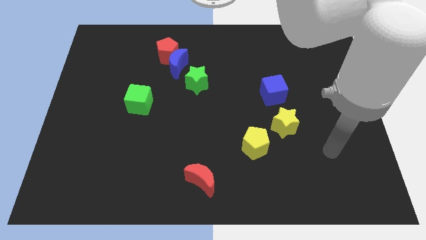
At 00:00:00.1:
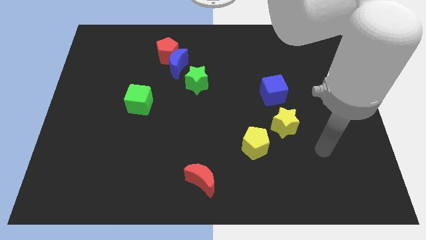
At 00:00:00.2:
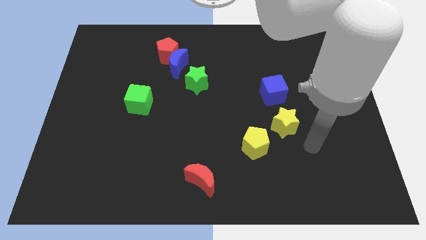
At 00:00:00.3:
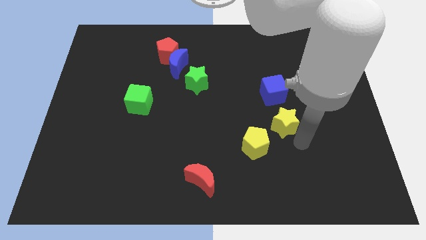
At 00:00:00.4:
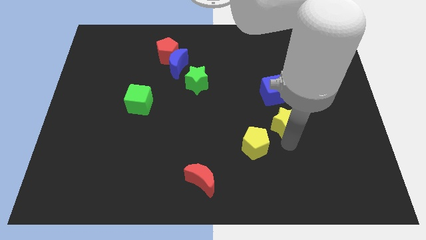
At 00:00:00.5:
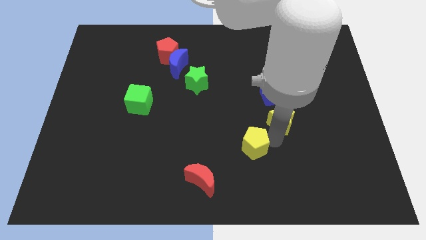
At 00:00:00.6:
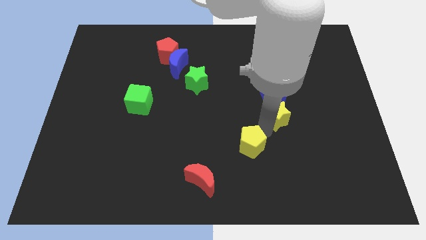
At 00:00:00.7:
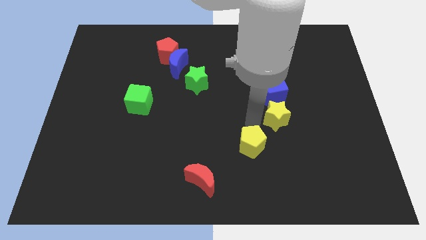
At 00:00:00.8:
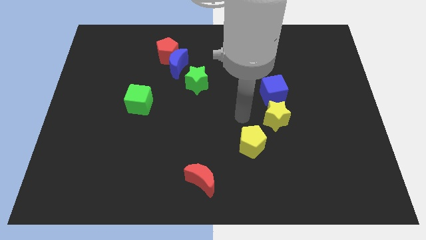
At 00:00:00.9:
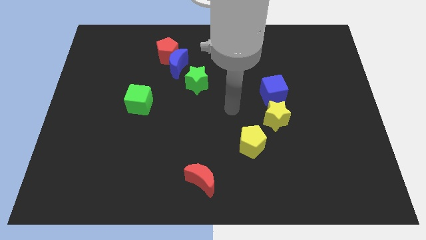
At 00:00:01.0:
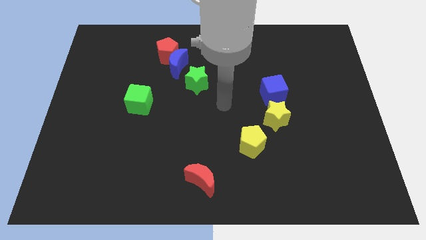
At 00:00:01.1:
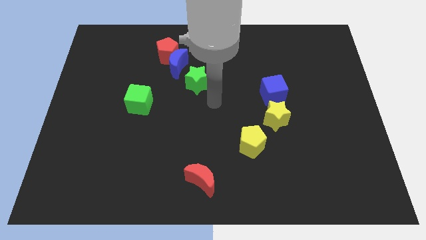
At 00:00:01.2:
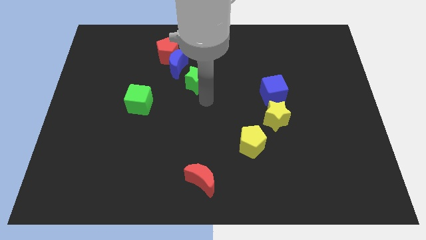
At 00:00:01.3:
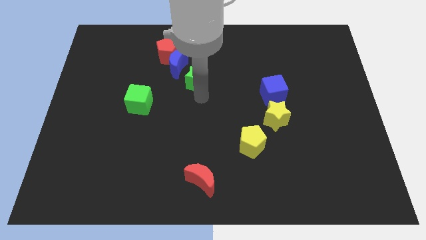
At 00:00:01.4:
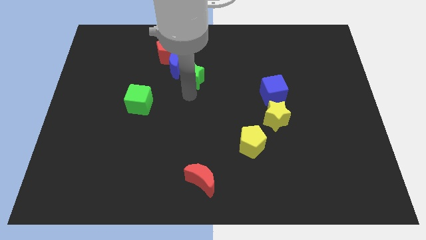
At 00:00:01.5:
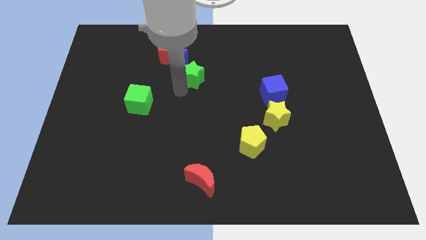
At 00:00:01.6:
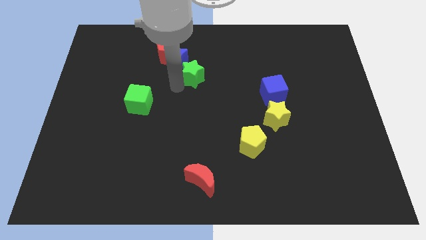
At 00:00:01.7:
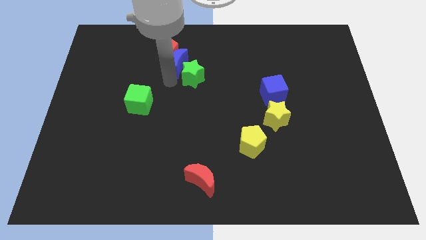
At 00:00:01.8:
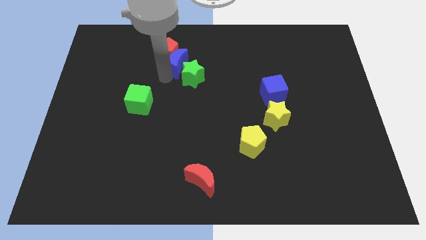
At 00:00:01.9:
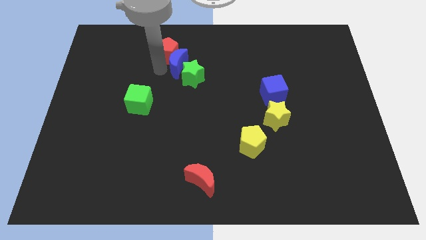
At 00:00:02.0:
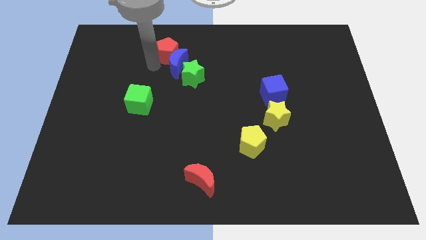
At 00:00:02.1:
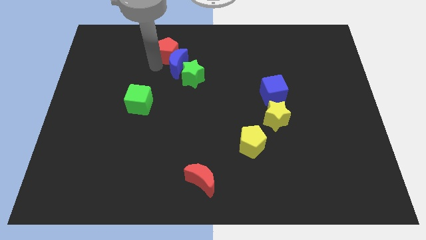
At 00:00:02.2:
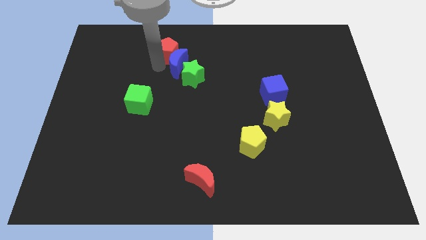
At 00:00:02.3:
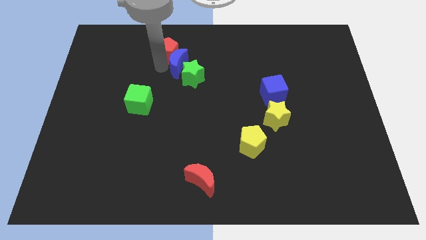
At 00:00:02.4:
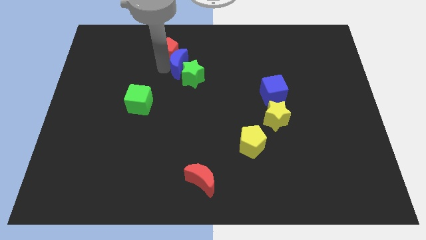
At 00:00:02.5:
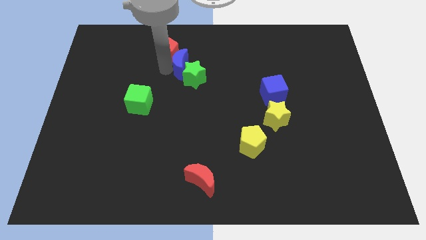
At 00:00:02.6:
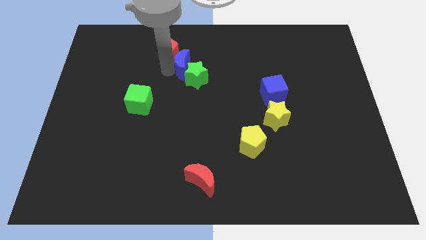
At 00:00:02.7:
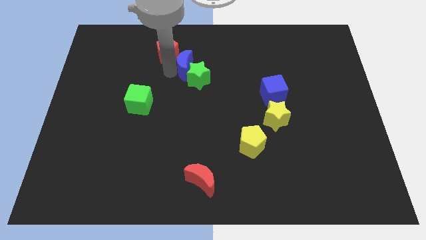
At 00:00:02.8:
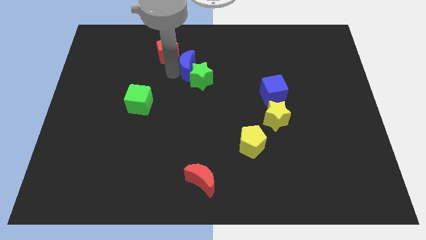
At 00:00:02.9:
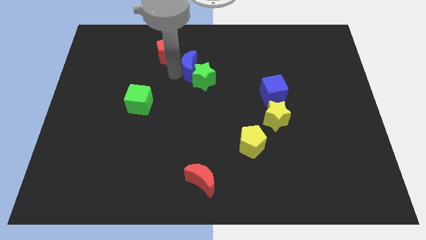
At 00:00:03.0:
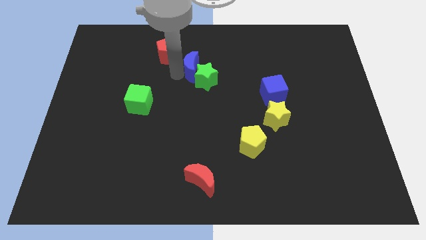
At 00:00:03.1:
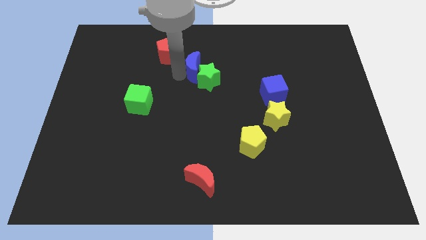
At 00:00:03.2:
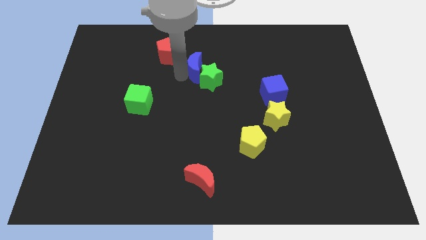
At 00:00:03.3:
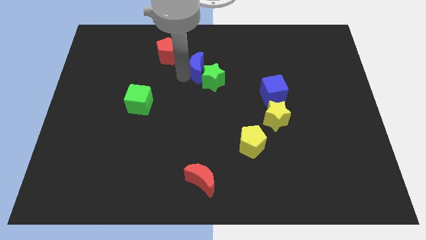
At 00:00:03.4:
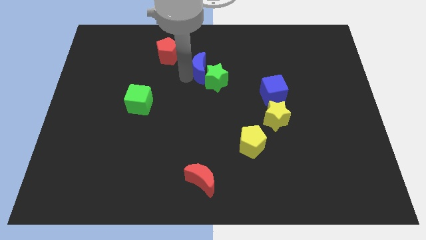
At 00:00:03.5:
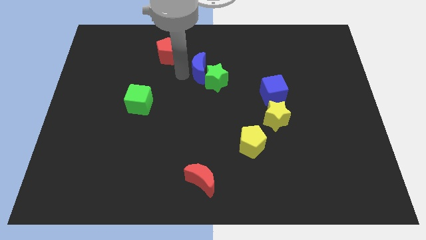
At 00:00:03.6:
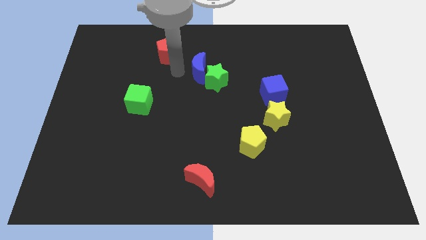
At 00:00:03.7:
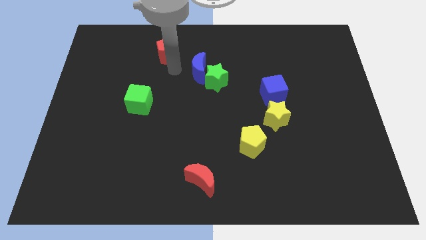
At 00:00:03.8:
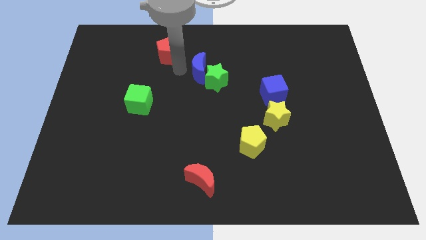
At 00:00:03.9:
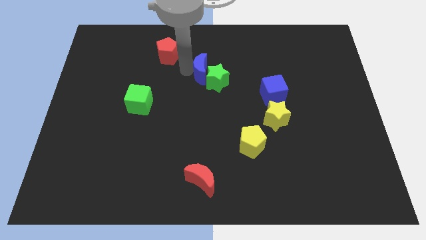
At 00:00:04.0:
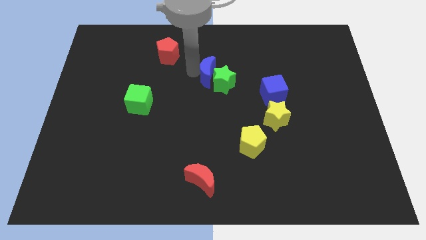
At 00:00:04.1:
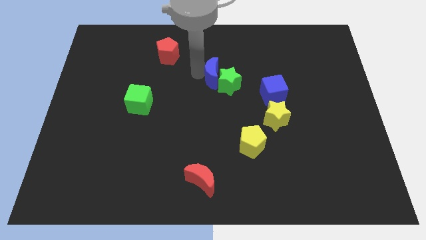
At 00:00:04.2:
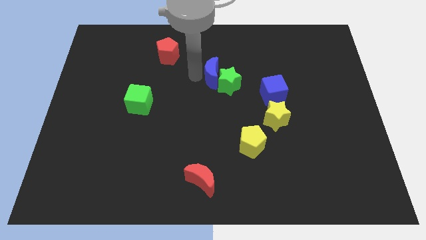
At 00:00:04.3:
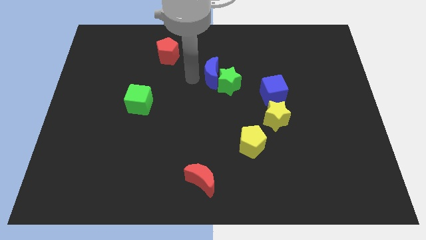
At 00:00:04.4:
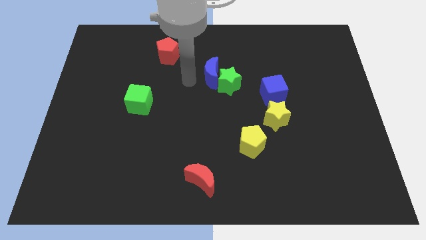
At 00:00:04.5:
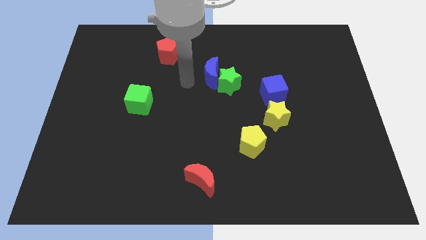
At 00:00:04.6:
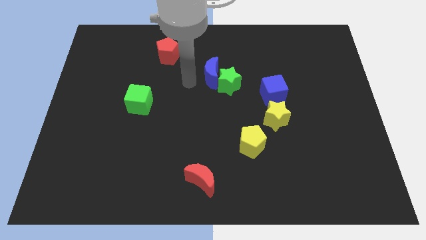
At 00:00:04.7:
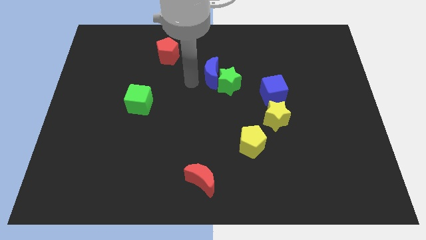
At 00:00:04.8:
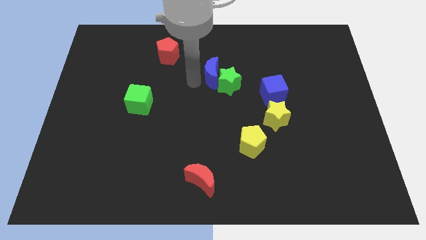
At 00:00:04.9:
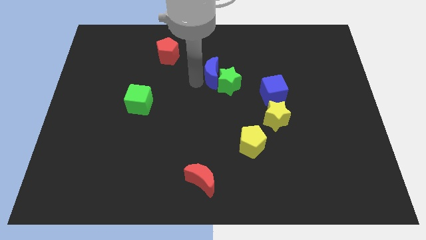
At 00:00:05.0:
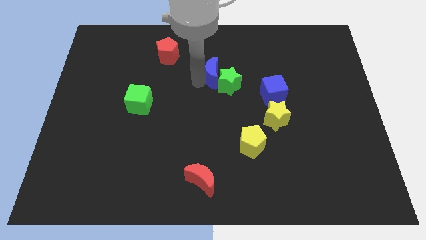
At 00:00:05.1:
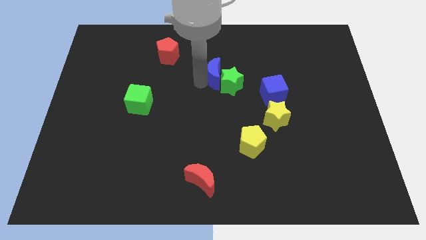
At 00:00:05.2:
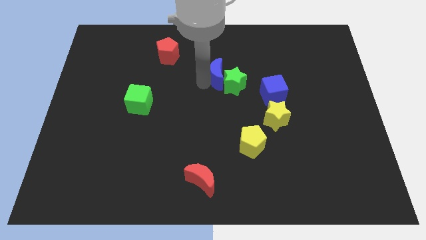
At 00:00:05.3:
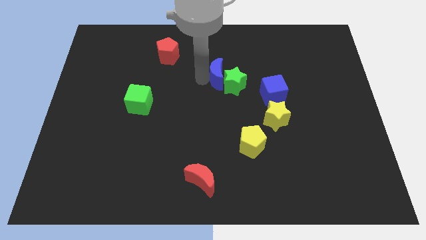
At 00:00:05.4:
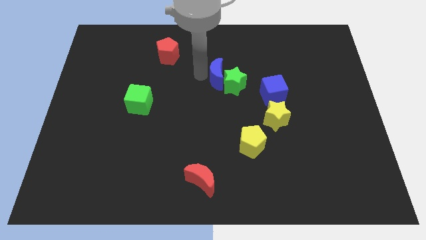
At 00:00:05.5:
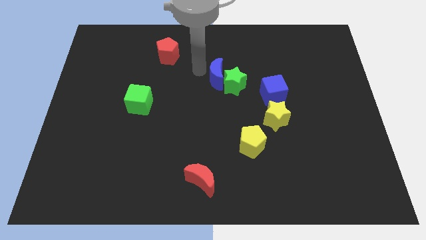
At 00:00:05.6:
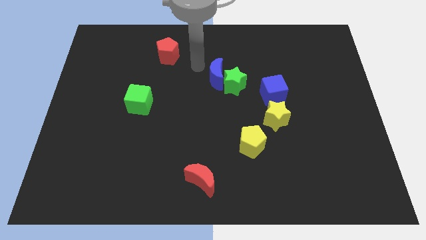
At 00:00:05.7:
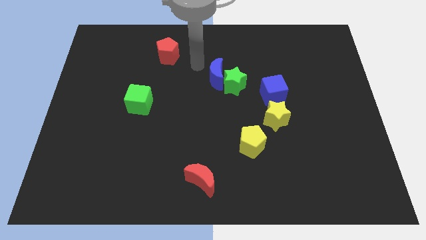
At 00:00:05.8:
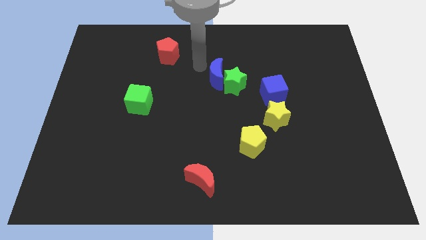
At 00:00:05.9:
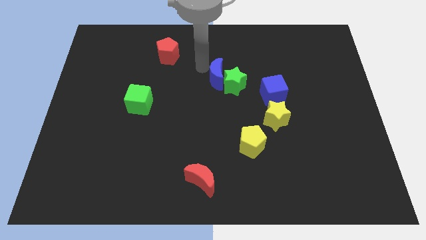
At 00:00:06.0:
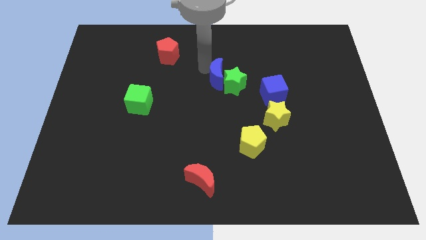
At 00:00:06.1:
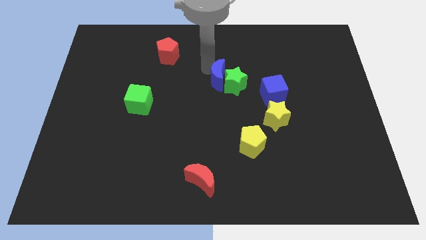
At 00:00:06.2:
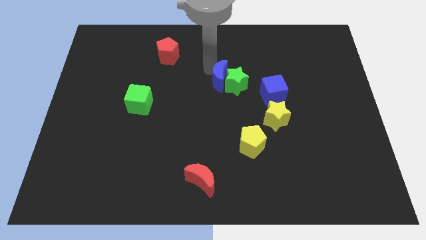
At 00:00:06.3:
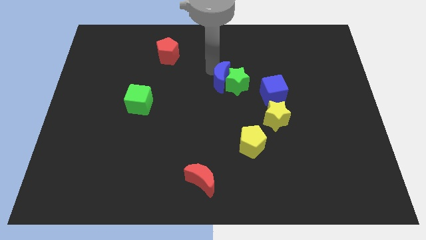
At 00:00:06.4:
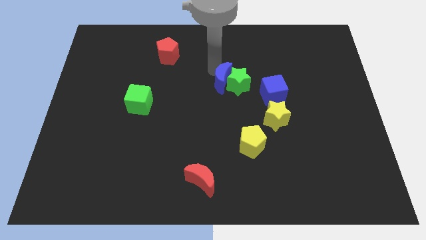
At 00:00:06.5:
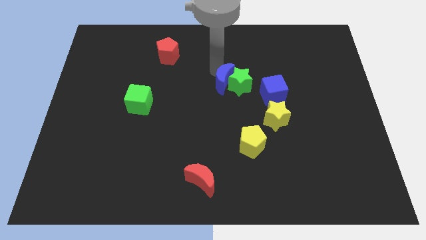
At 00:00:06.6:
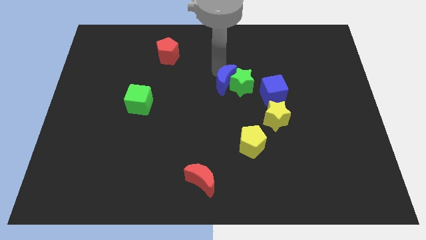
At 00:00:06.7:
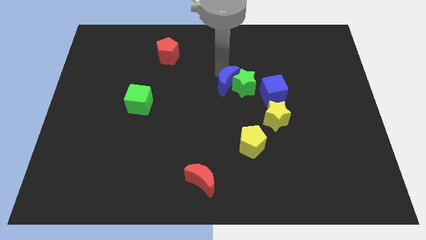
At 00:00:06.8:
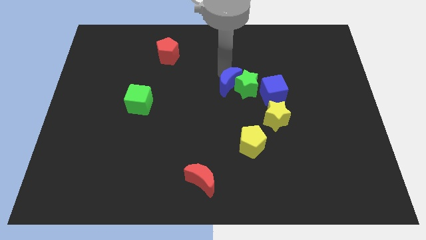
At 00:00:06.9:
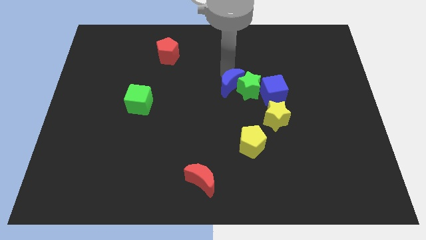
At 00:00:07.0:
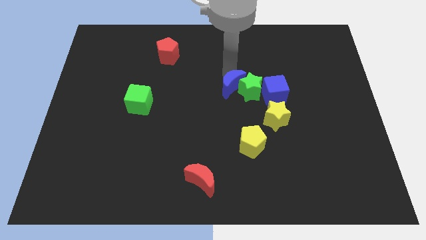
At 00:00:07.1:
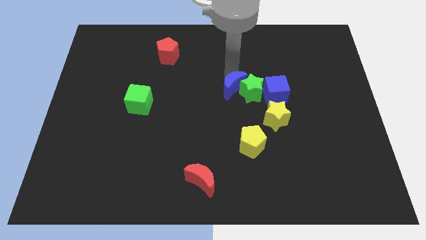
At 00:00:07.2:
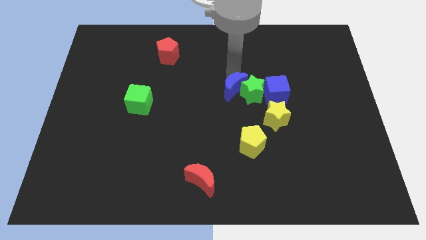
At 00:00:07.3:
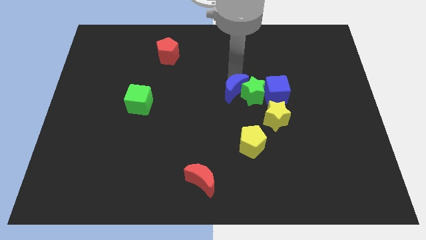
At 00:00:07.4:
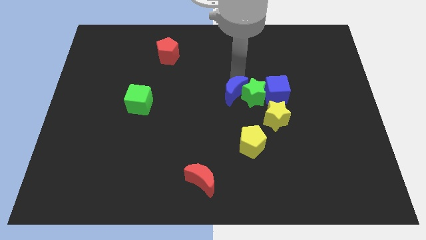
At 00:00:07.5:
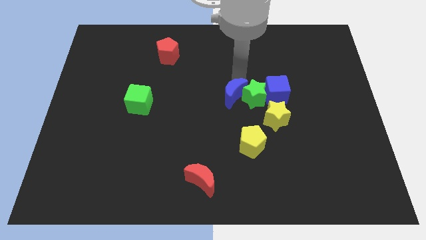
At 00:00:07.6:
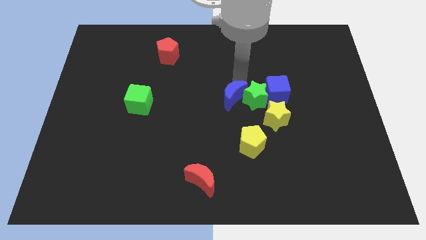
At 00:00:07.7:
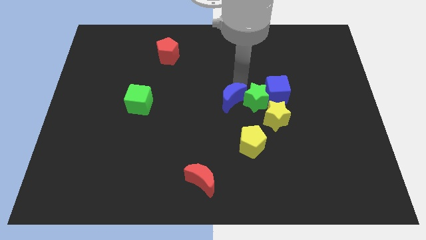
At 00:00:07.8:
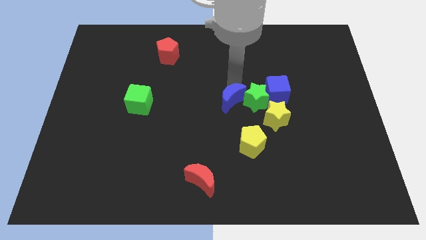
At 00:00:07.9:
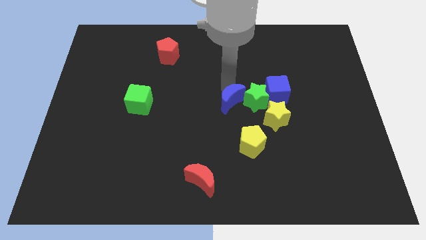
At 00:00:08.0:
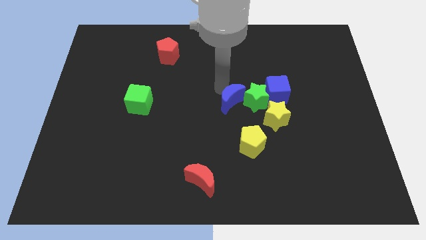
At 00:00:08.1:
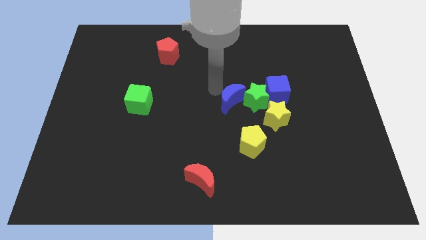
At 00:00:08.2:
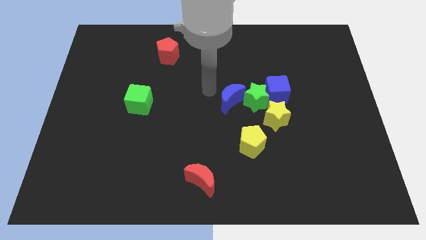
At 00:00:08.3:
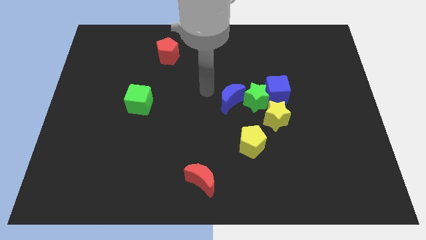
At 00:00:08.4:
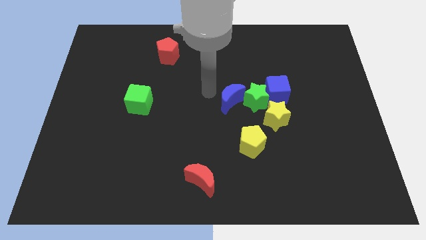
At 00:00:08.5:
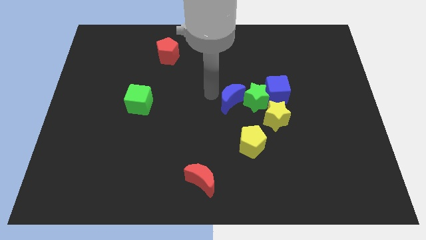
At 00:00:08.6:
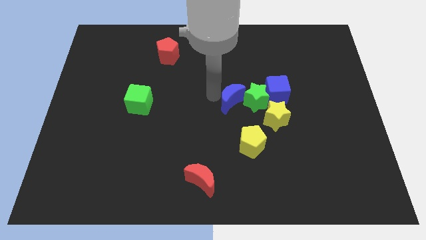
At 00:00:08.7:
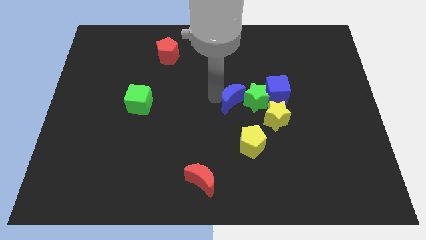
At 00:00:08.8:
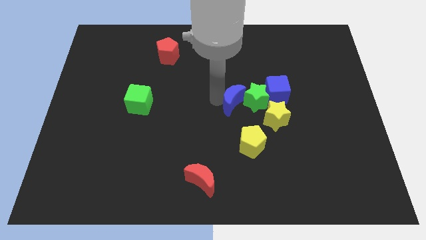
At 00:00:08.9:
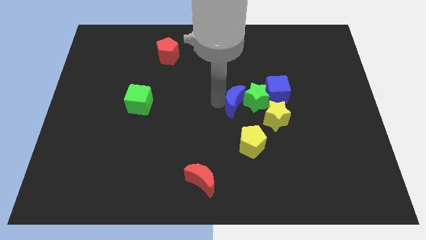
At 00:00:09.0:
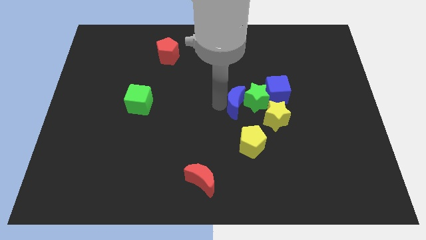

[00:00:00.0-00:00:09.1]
push the blue moon to the bottom left of the blue cube
